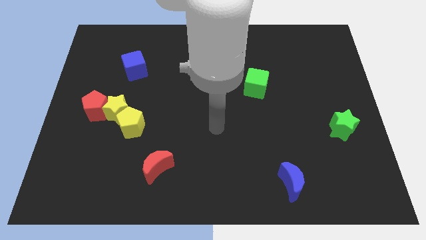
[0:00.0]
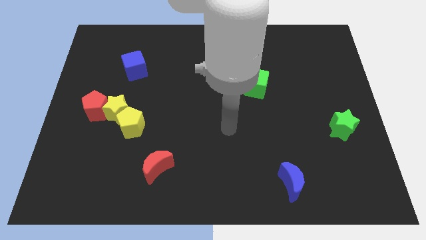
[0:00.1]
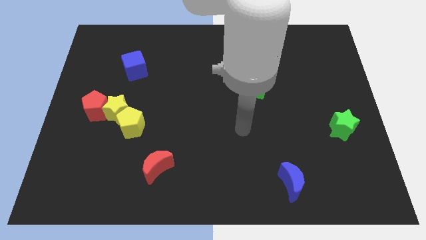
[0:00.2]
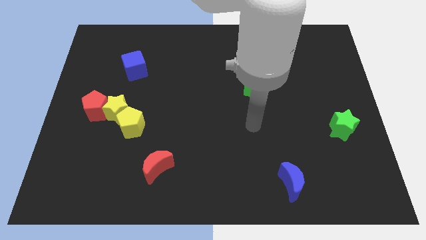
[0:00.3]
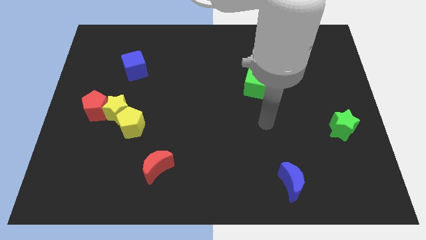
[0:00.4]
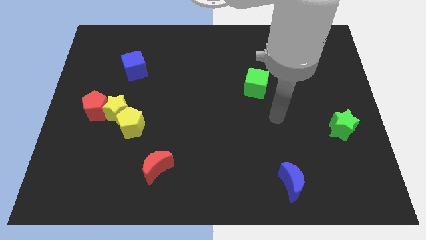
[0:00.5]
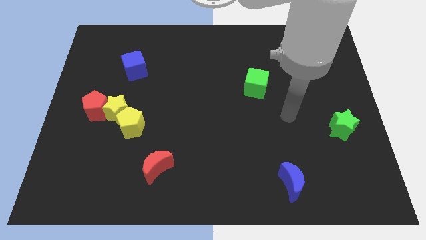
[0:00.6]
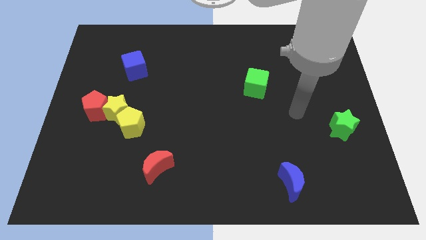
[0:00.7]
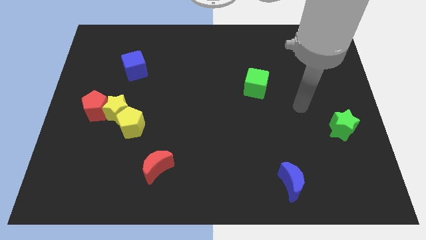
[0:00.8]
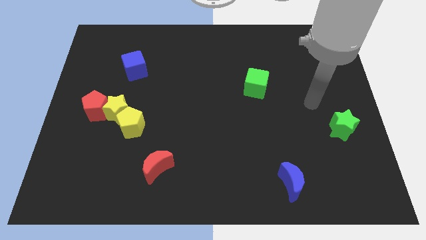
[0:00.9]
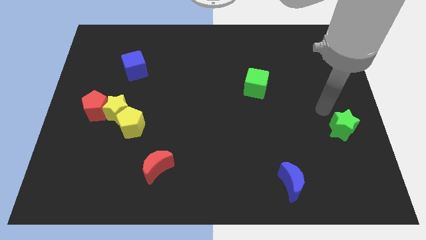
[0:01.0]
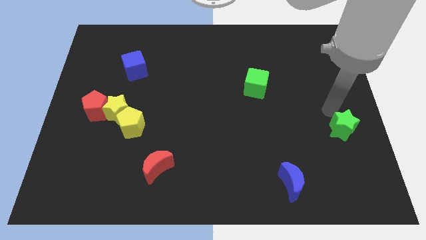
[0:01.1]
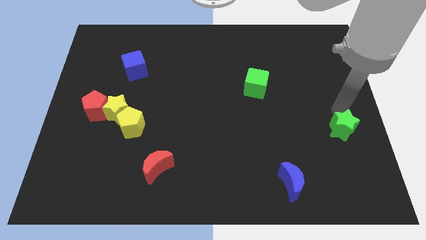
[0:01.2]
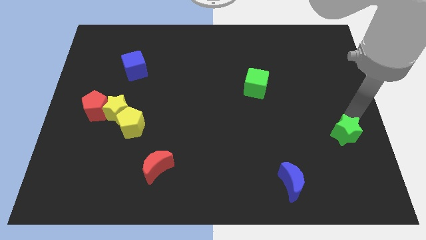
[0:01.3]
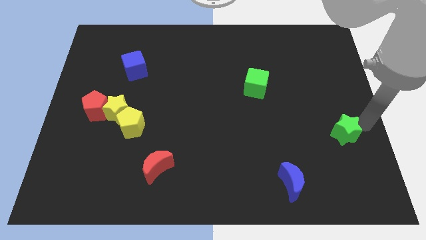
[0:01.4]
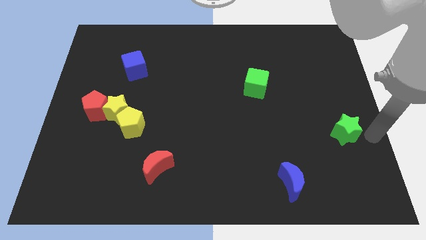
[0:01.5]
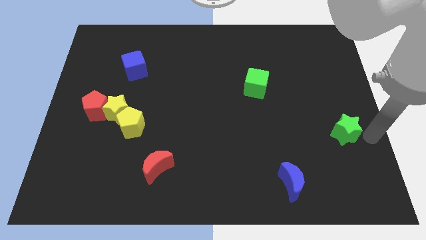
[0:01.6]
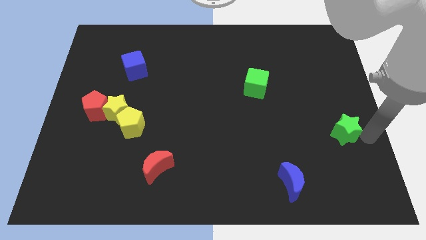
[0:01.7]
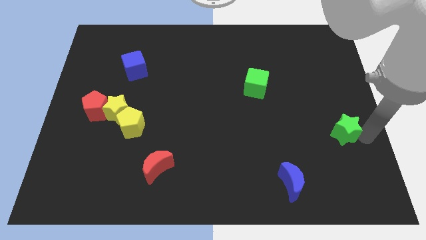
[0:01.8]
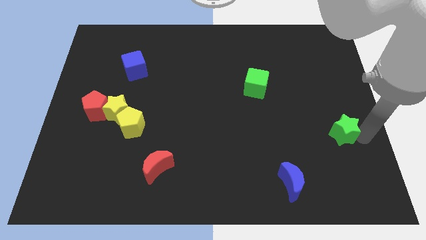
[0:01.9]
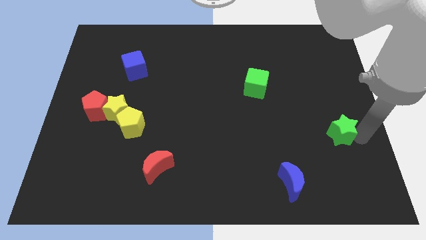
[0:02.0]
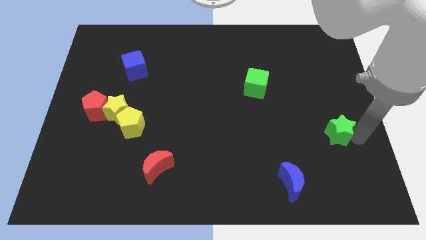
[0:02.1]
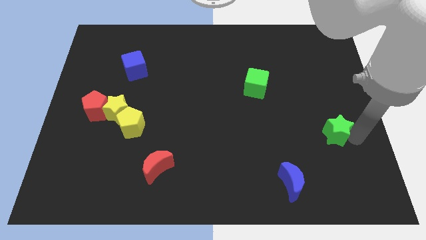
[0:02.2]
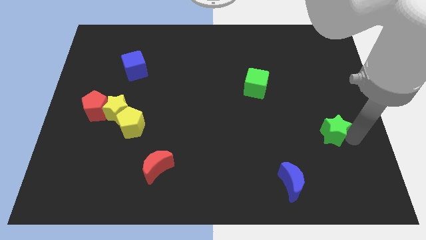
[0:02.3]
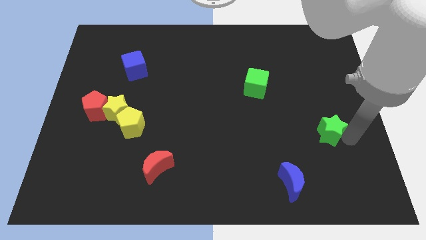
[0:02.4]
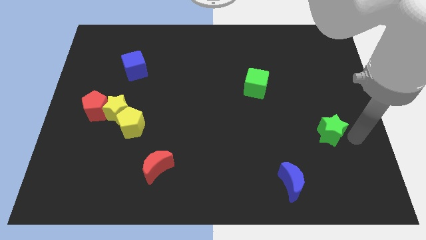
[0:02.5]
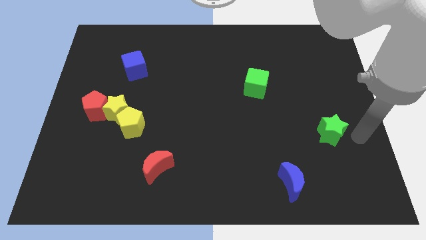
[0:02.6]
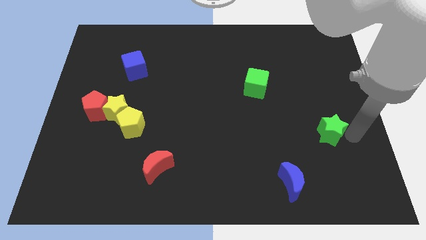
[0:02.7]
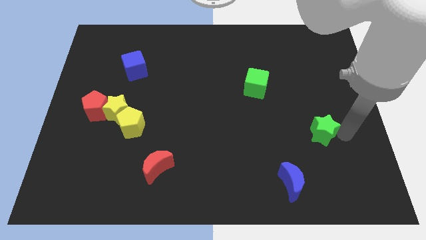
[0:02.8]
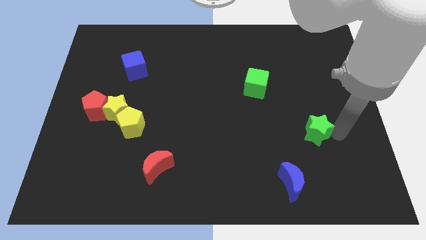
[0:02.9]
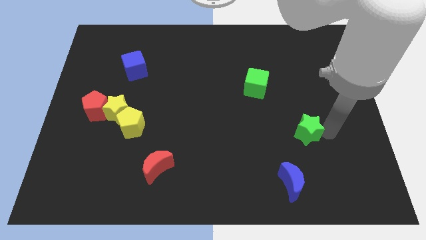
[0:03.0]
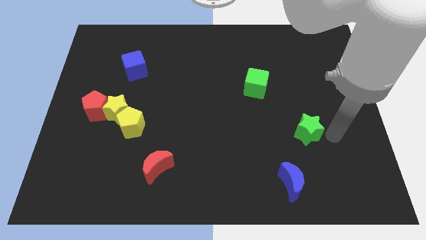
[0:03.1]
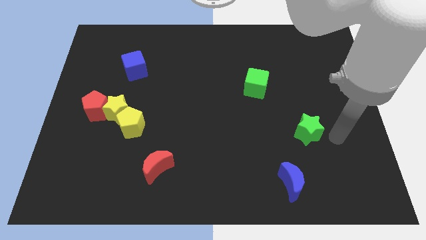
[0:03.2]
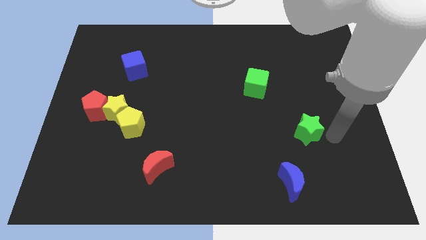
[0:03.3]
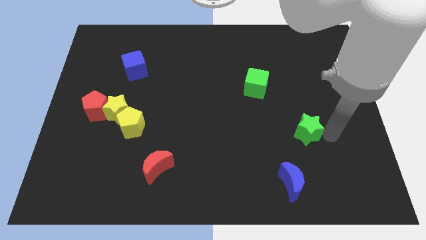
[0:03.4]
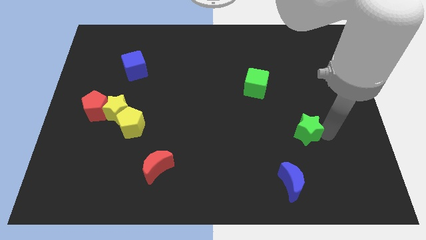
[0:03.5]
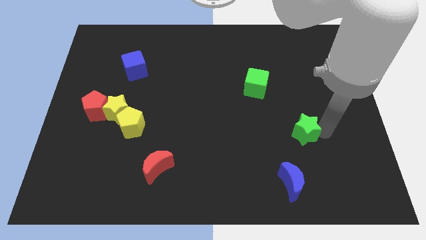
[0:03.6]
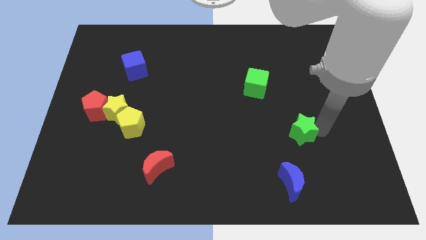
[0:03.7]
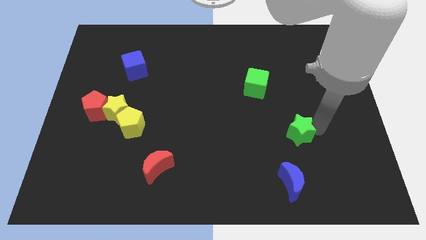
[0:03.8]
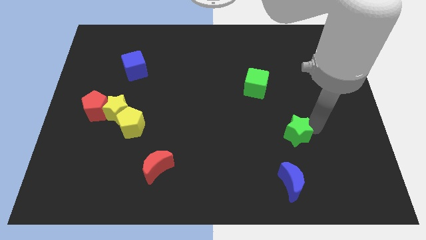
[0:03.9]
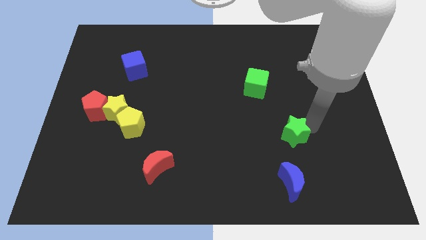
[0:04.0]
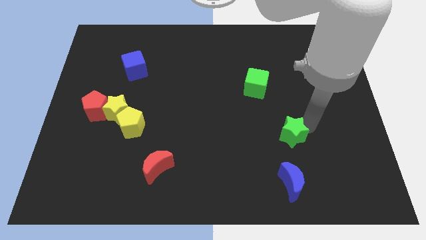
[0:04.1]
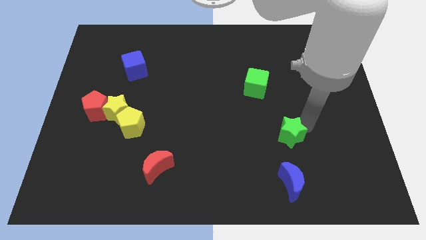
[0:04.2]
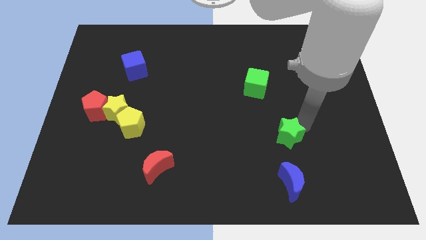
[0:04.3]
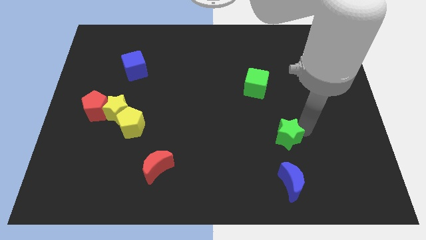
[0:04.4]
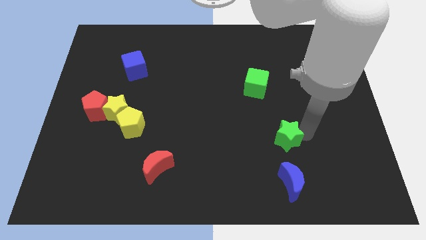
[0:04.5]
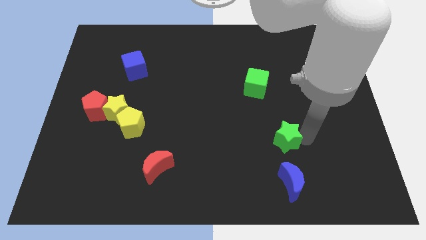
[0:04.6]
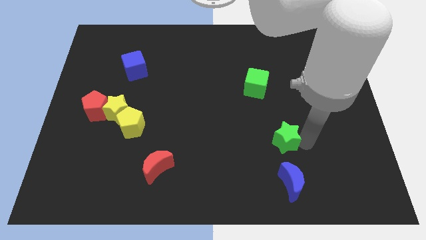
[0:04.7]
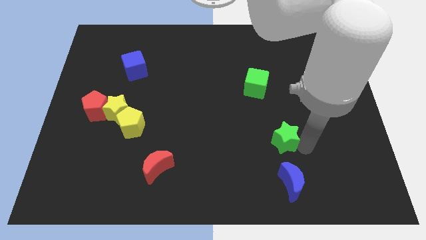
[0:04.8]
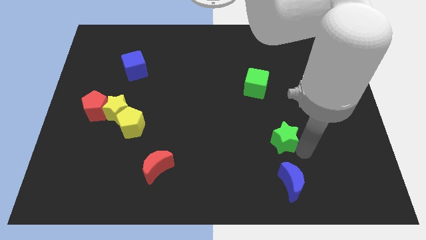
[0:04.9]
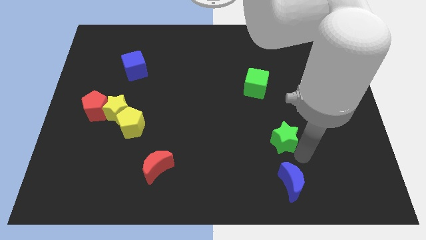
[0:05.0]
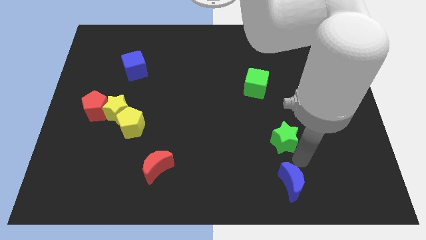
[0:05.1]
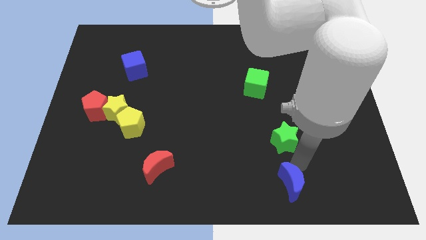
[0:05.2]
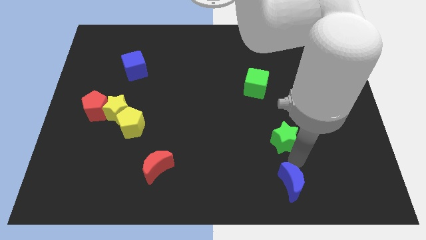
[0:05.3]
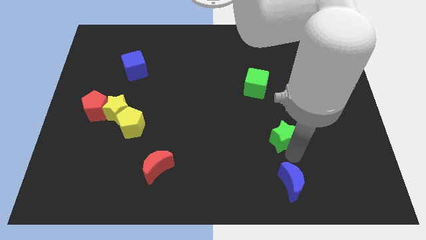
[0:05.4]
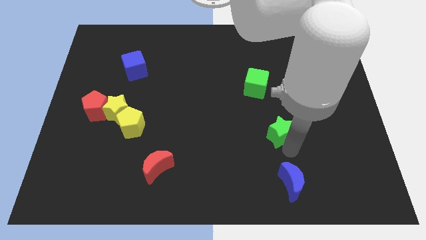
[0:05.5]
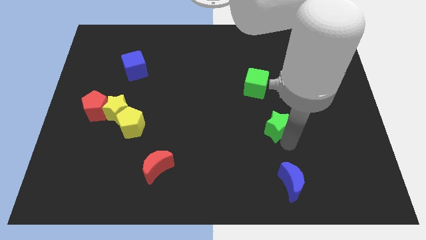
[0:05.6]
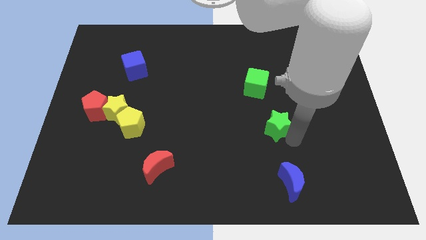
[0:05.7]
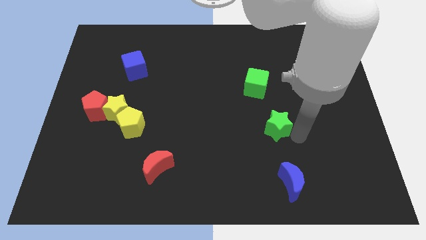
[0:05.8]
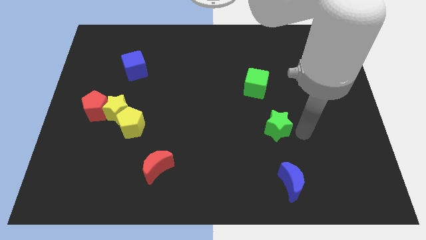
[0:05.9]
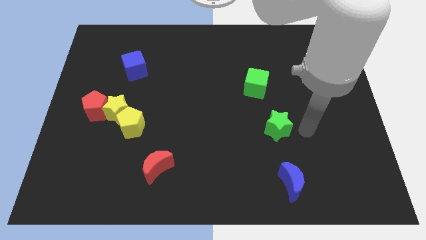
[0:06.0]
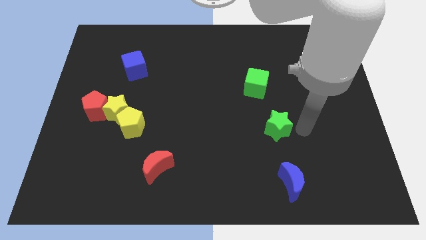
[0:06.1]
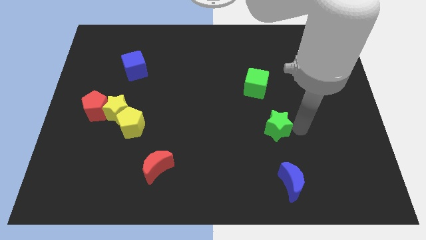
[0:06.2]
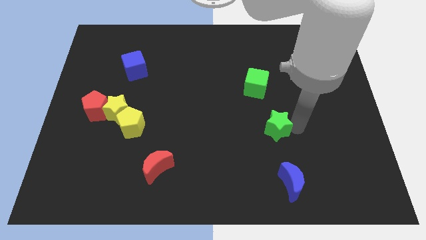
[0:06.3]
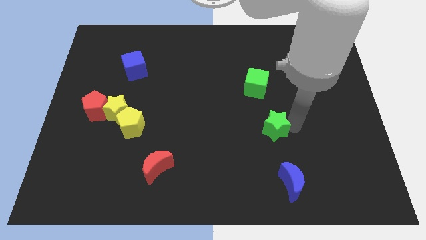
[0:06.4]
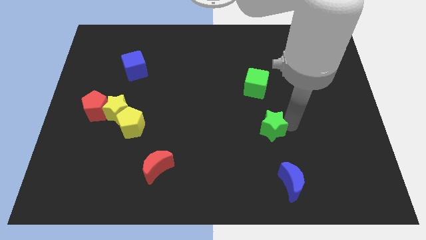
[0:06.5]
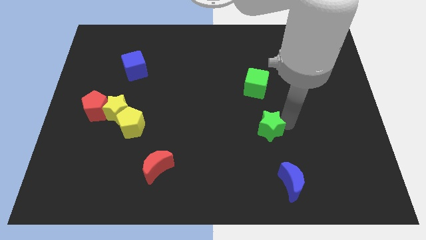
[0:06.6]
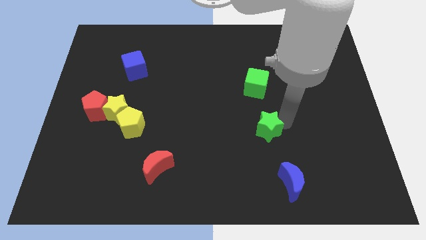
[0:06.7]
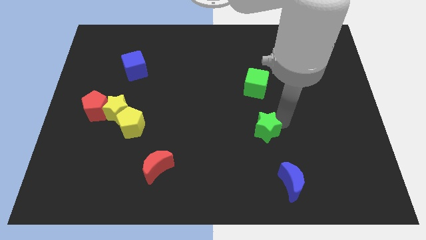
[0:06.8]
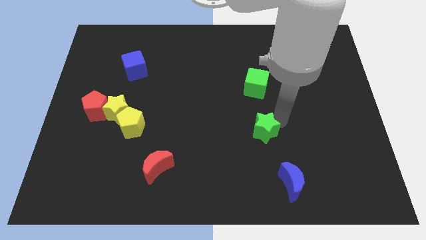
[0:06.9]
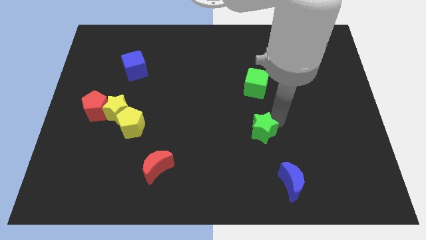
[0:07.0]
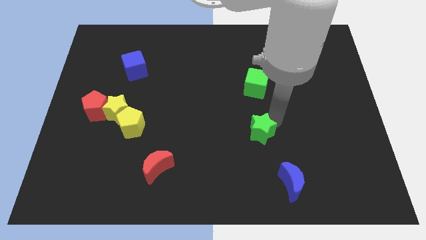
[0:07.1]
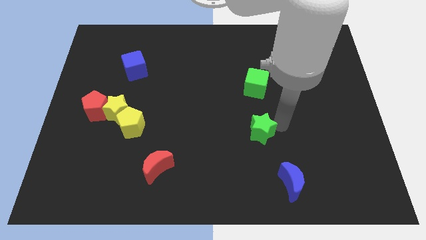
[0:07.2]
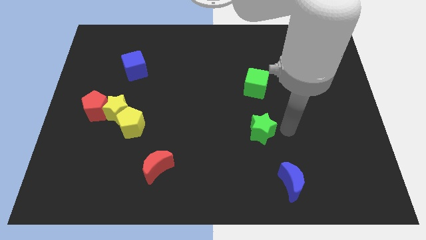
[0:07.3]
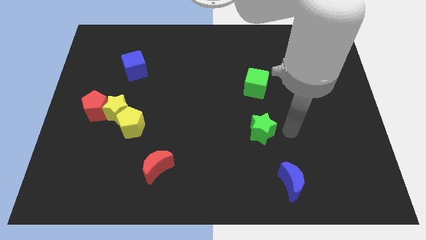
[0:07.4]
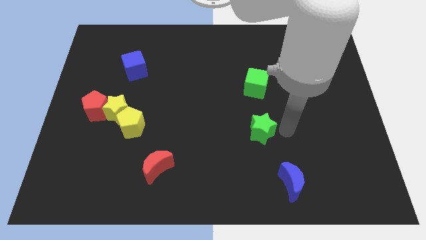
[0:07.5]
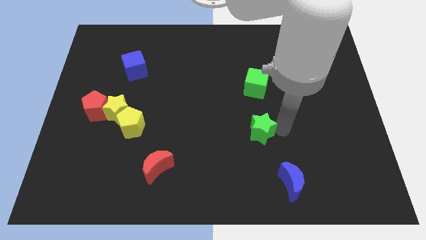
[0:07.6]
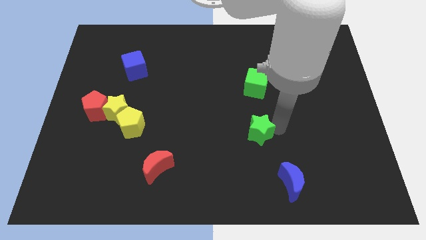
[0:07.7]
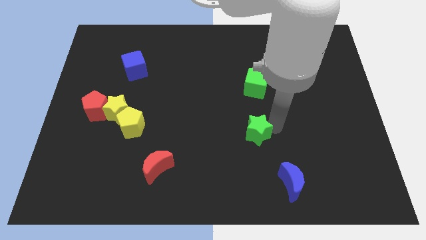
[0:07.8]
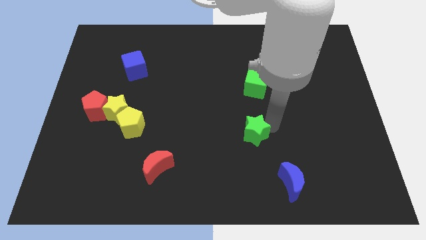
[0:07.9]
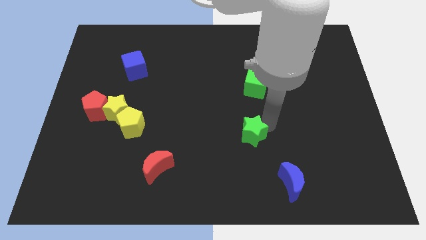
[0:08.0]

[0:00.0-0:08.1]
slide the green star left
